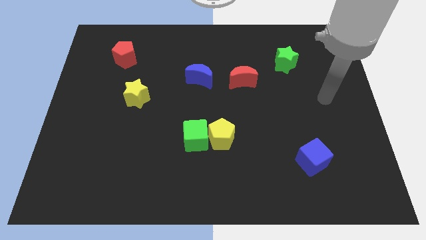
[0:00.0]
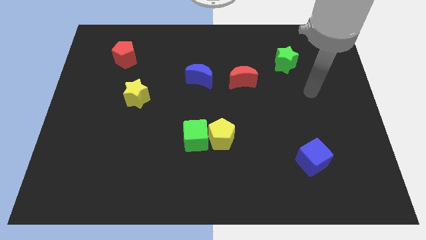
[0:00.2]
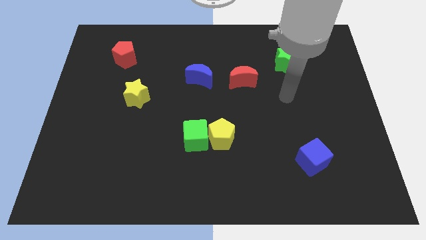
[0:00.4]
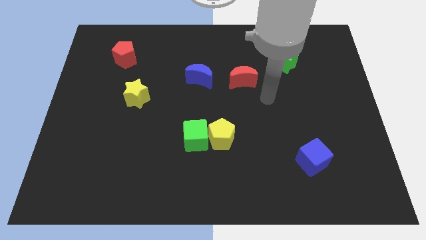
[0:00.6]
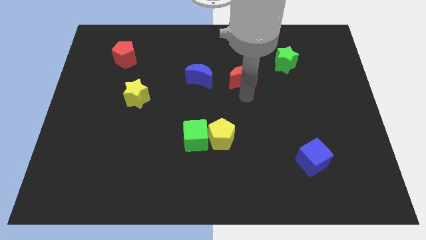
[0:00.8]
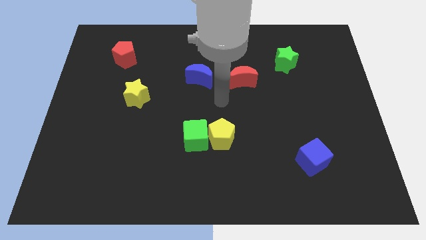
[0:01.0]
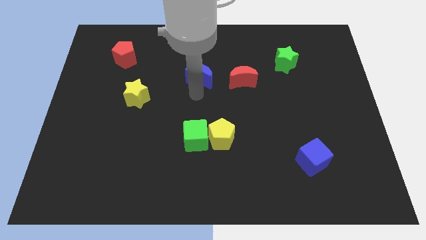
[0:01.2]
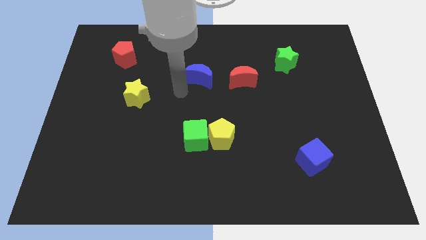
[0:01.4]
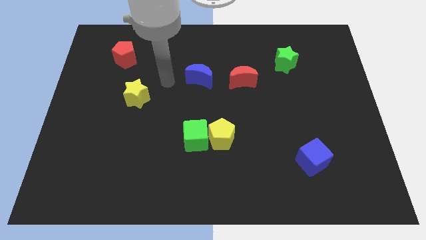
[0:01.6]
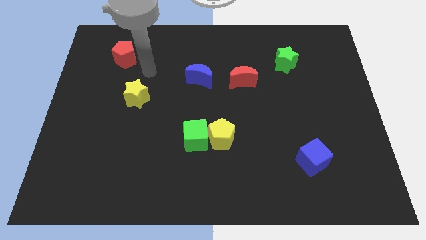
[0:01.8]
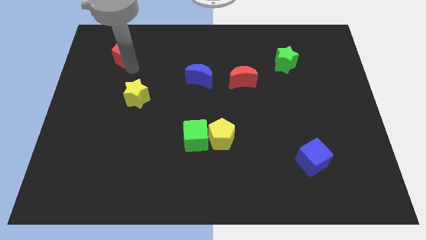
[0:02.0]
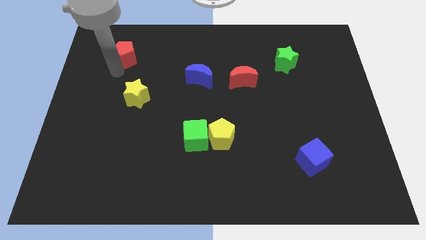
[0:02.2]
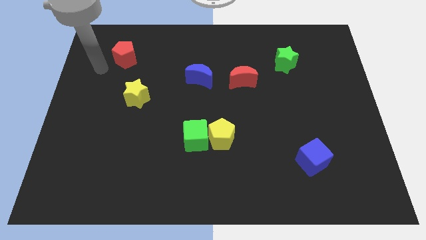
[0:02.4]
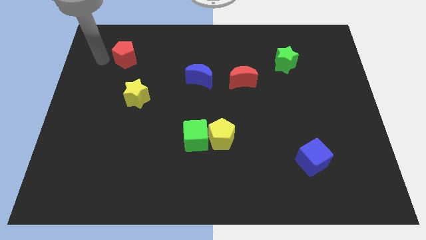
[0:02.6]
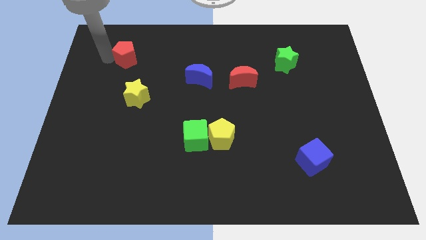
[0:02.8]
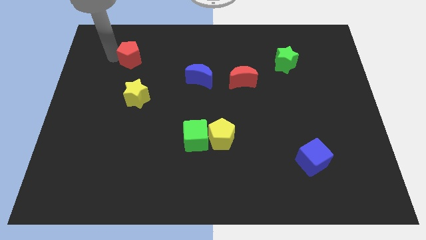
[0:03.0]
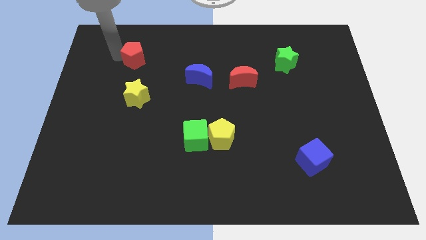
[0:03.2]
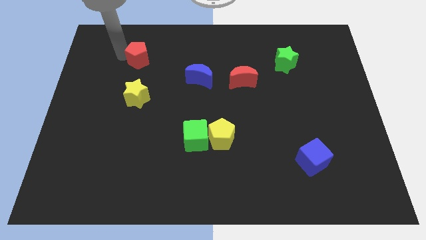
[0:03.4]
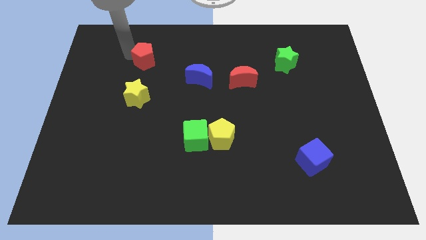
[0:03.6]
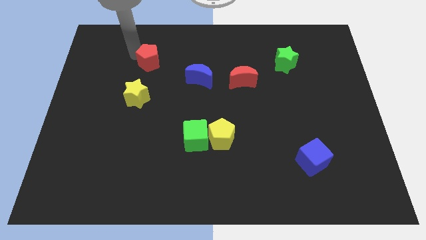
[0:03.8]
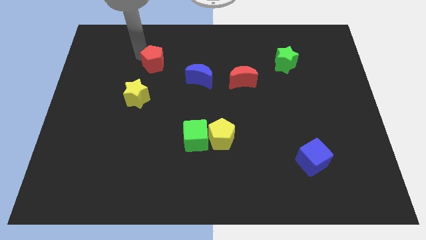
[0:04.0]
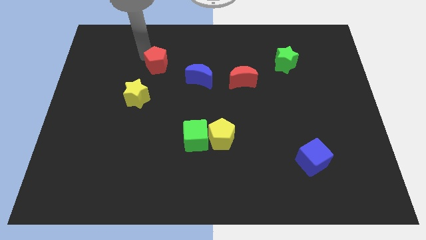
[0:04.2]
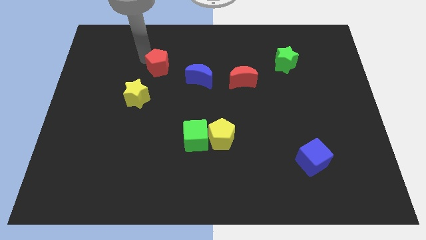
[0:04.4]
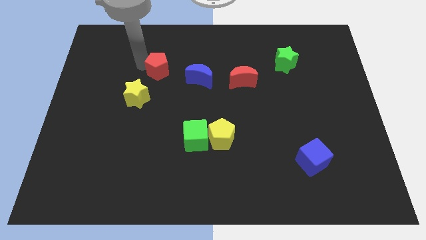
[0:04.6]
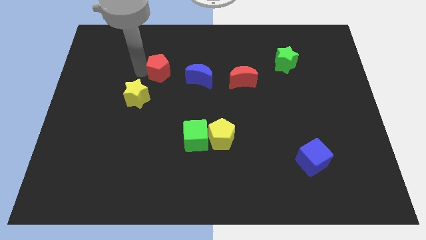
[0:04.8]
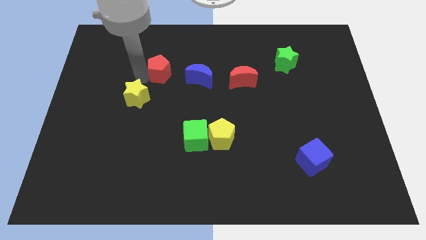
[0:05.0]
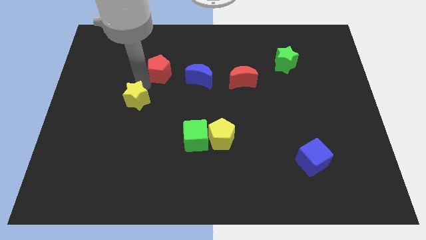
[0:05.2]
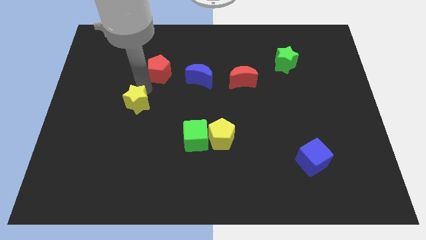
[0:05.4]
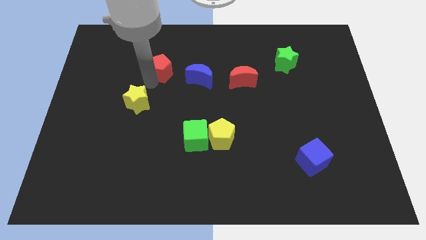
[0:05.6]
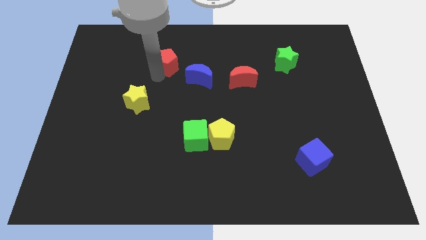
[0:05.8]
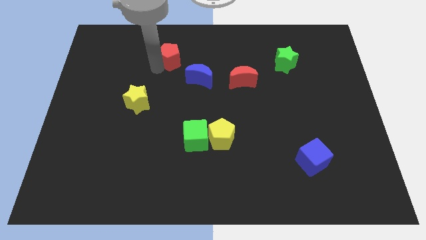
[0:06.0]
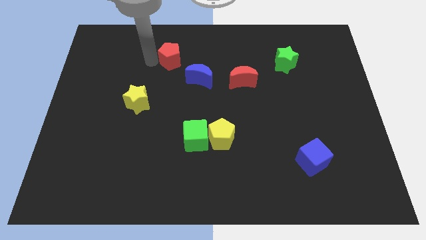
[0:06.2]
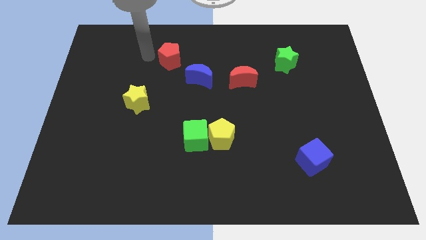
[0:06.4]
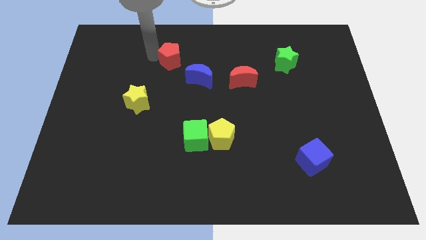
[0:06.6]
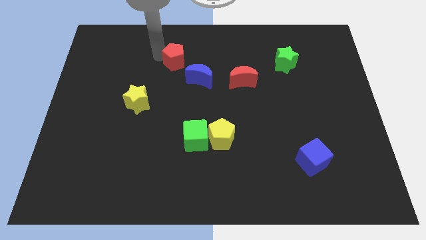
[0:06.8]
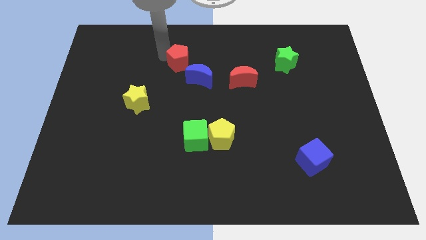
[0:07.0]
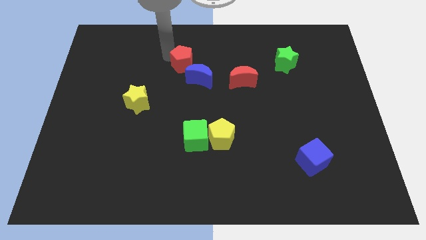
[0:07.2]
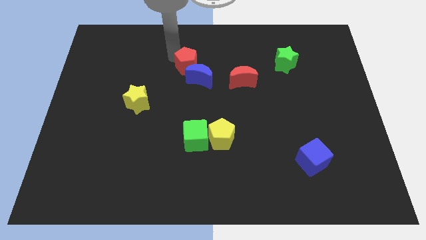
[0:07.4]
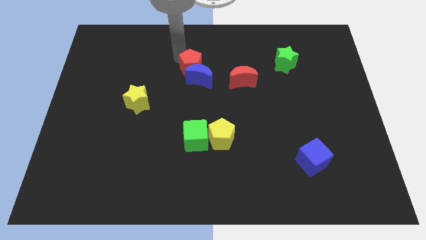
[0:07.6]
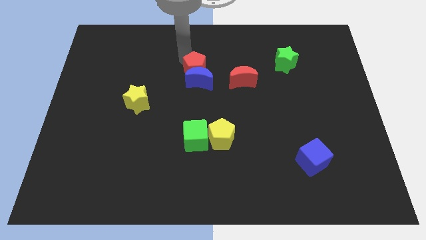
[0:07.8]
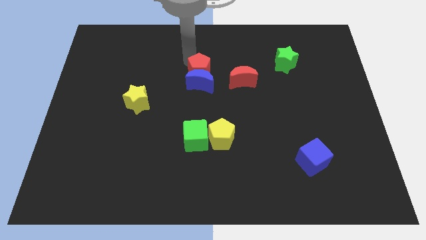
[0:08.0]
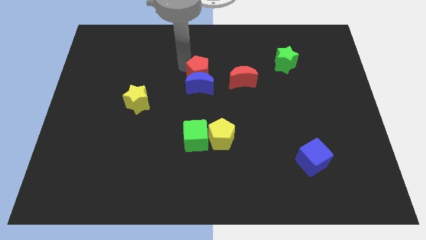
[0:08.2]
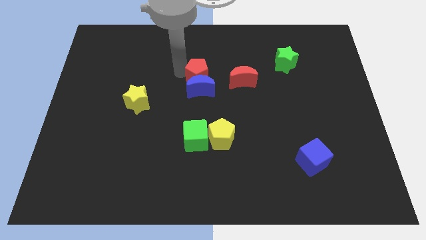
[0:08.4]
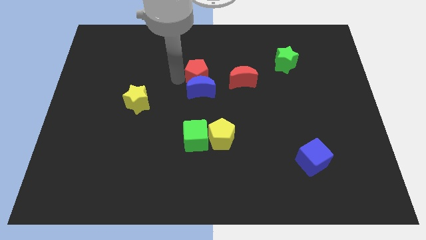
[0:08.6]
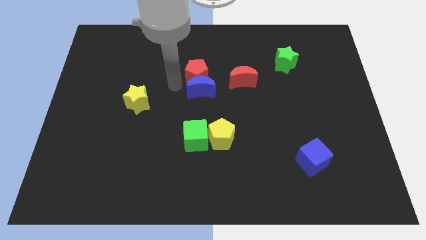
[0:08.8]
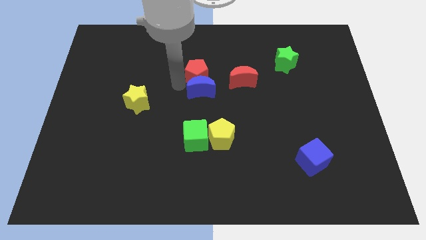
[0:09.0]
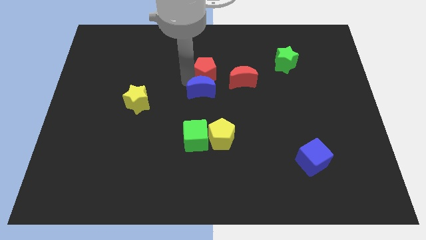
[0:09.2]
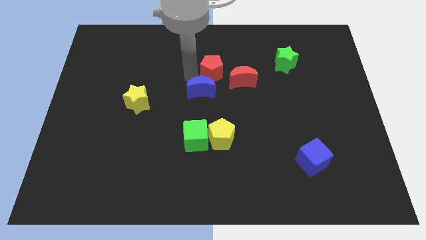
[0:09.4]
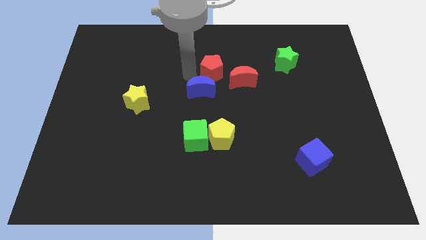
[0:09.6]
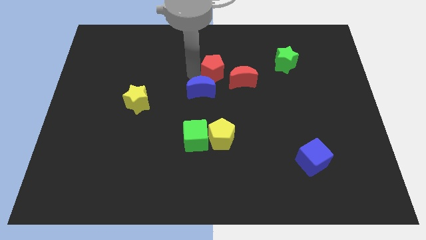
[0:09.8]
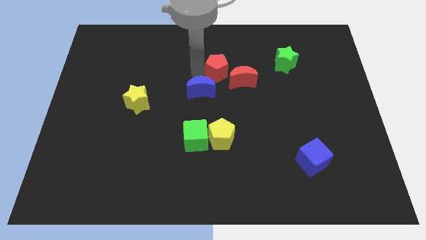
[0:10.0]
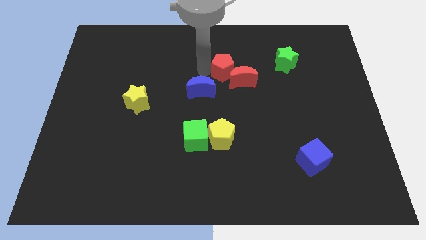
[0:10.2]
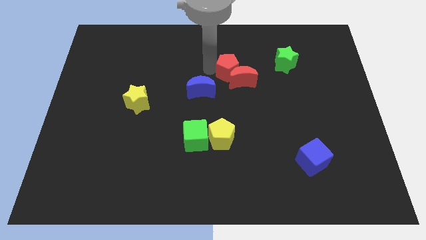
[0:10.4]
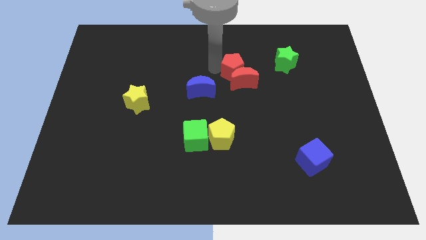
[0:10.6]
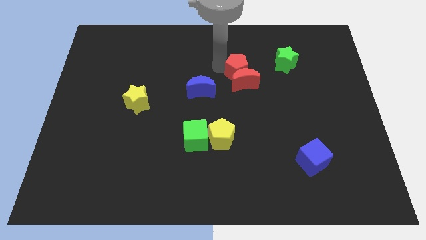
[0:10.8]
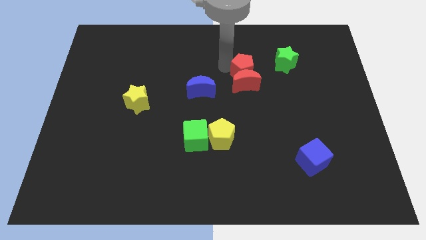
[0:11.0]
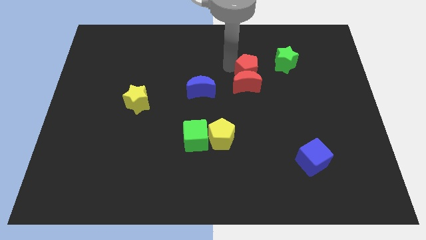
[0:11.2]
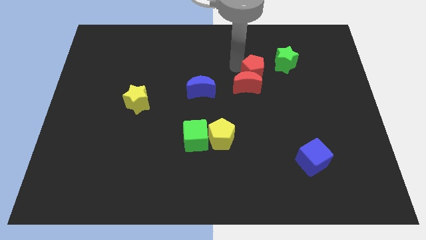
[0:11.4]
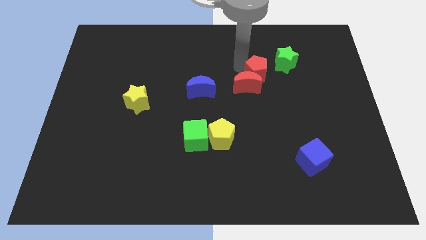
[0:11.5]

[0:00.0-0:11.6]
move the red pentagon just right of the red moon

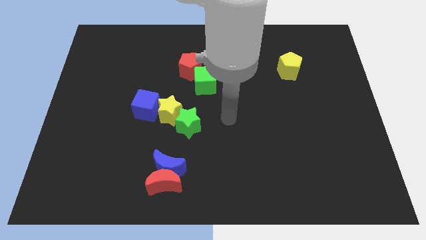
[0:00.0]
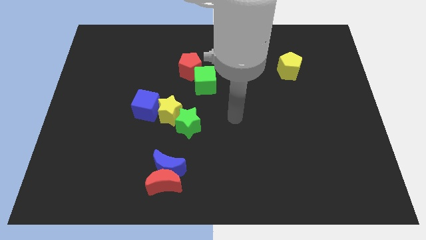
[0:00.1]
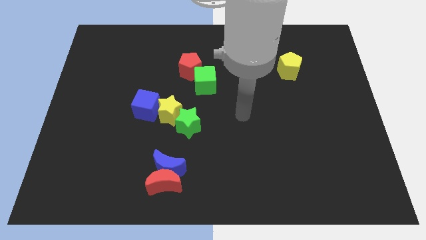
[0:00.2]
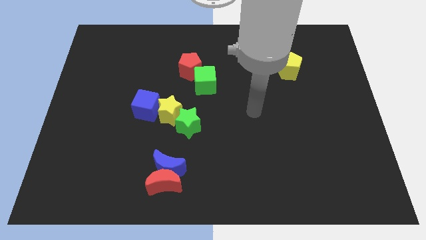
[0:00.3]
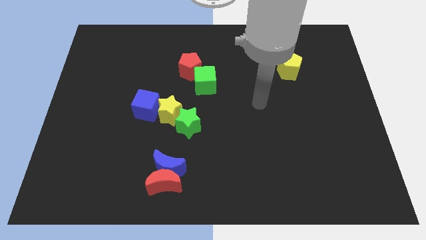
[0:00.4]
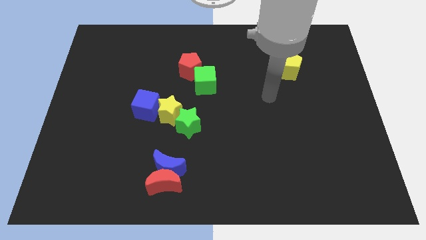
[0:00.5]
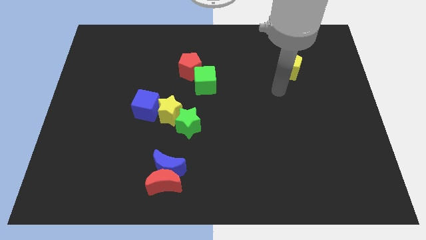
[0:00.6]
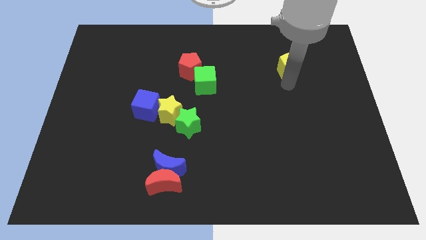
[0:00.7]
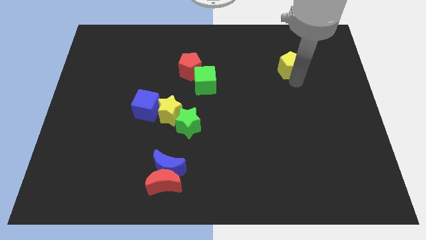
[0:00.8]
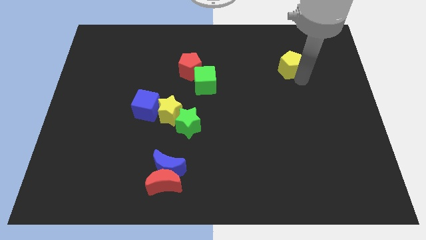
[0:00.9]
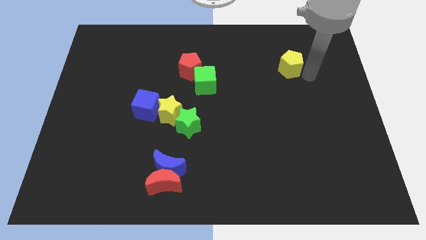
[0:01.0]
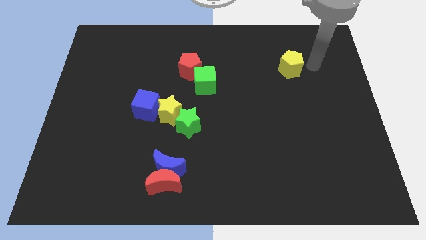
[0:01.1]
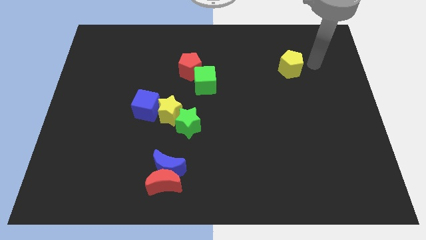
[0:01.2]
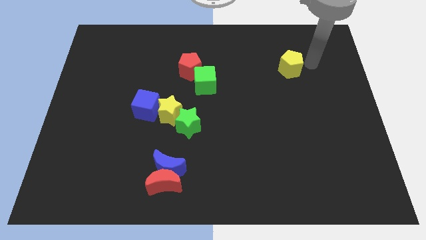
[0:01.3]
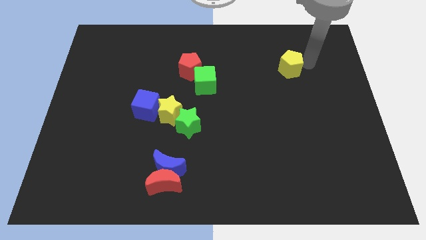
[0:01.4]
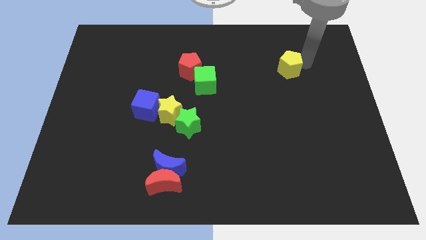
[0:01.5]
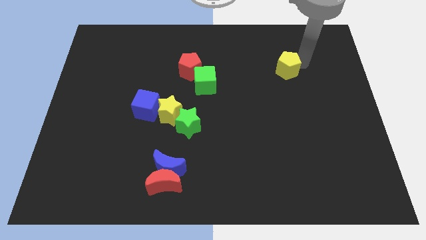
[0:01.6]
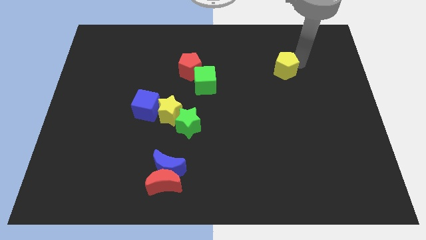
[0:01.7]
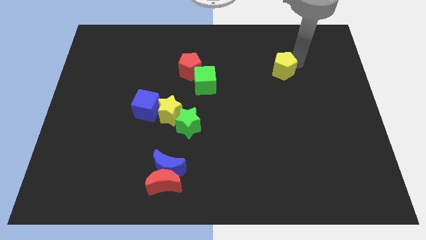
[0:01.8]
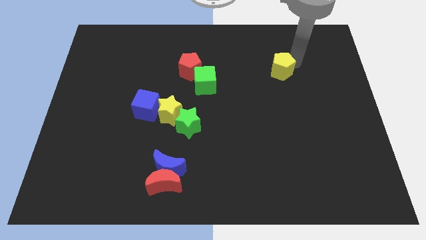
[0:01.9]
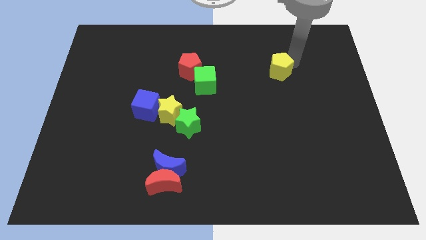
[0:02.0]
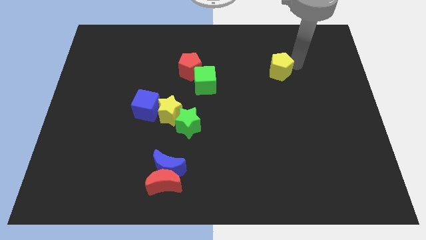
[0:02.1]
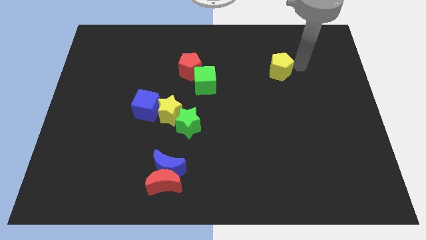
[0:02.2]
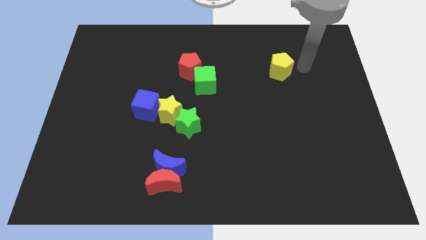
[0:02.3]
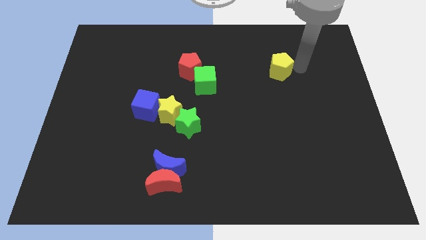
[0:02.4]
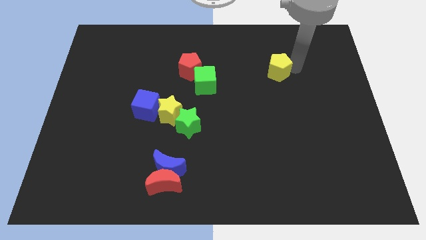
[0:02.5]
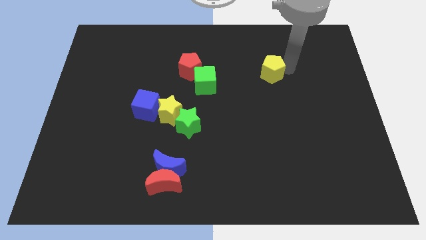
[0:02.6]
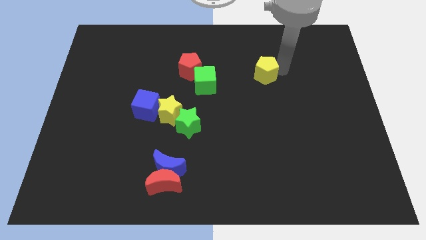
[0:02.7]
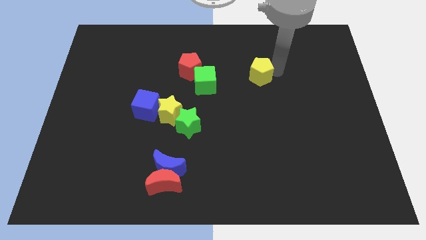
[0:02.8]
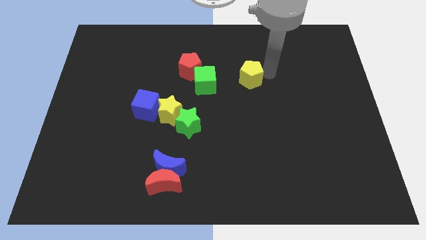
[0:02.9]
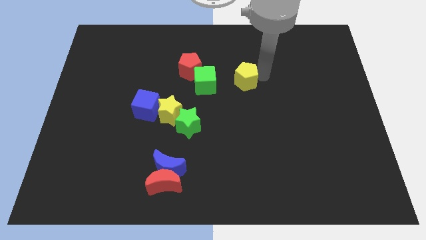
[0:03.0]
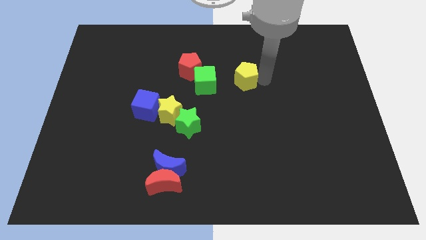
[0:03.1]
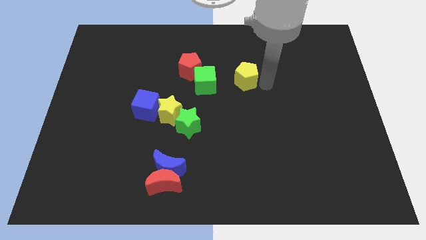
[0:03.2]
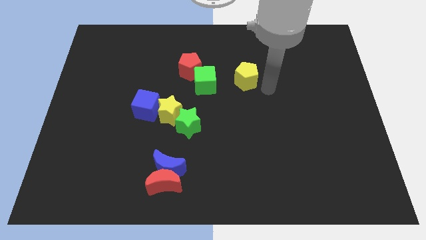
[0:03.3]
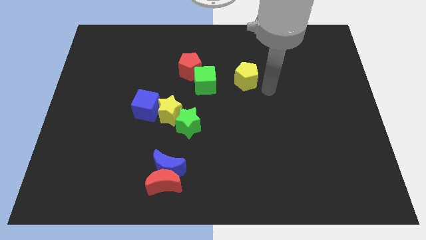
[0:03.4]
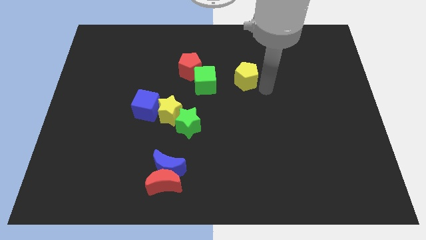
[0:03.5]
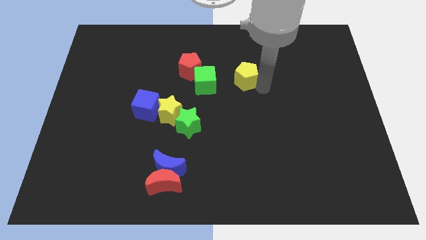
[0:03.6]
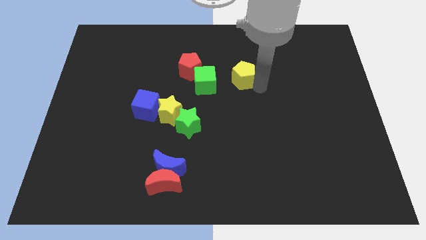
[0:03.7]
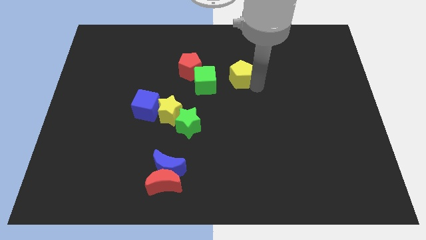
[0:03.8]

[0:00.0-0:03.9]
put the yellow pentagon diagonally up and to the right of the green cube
